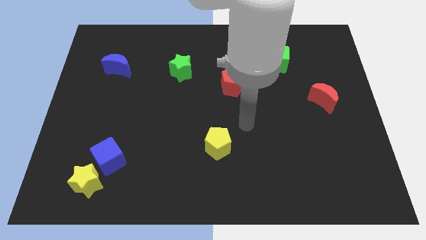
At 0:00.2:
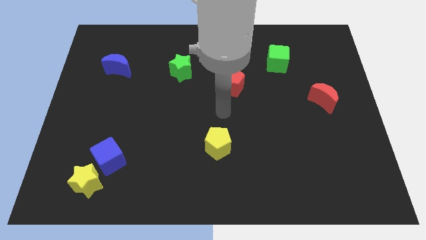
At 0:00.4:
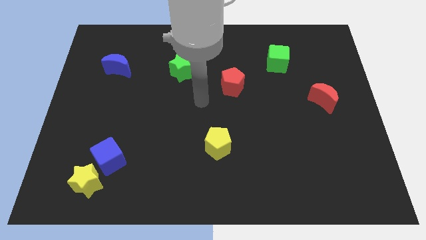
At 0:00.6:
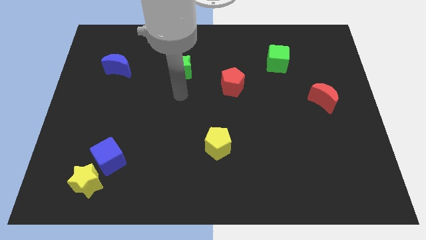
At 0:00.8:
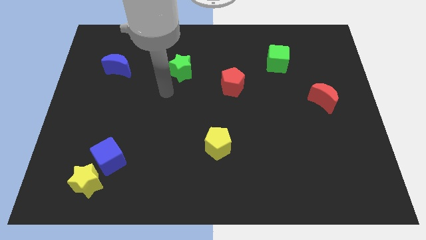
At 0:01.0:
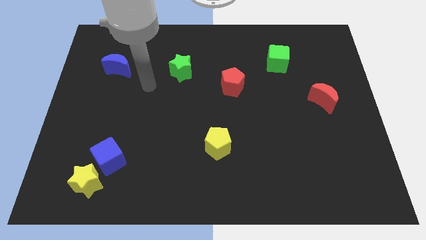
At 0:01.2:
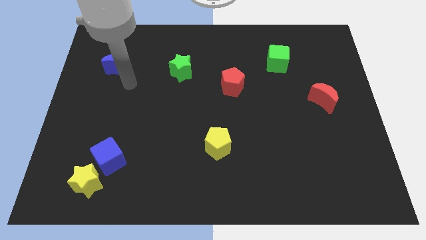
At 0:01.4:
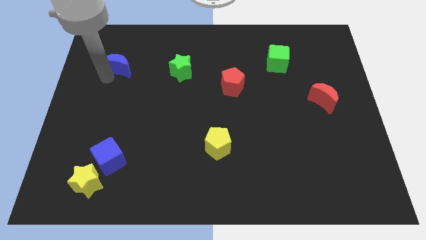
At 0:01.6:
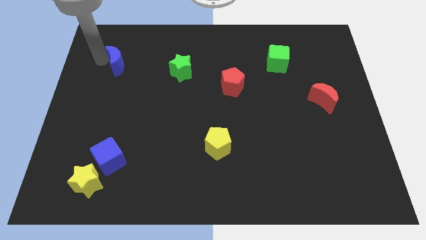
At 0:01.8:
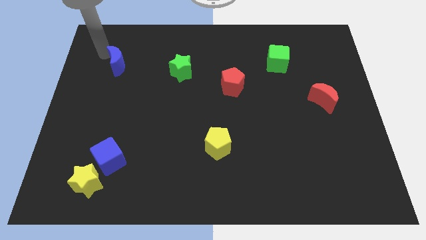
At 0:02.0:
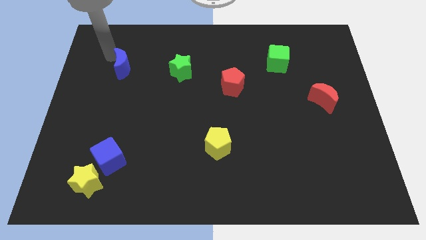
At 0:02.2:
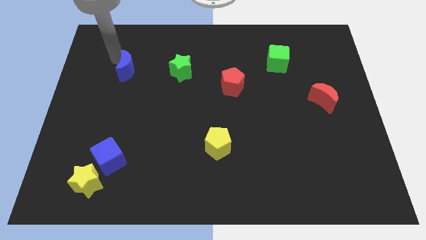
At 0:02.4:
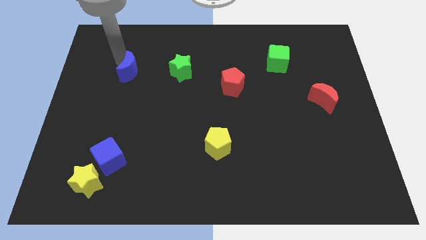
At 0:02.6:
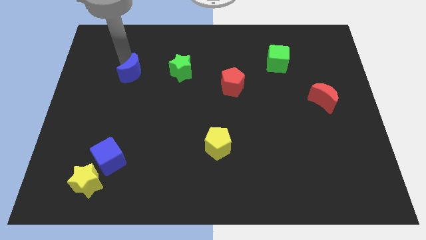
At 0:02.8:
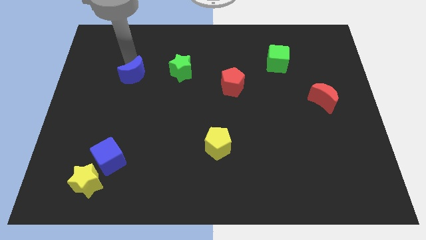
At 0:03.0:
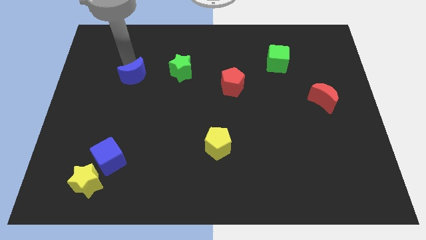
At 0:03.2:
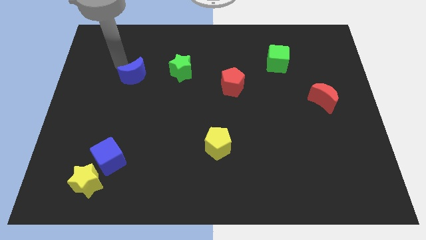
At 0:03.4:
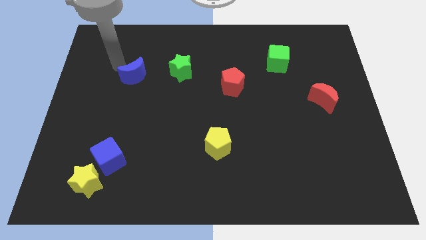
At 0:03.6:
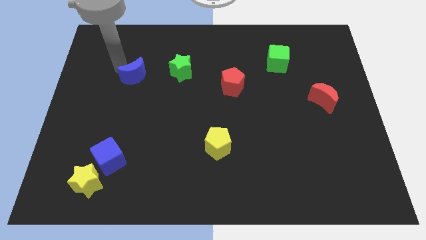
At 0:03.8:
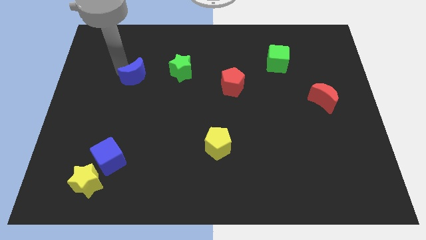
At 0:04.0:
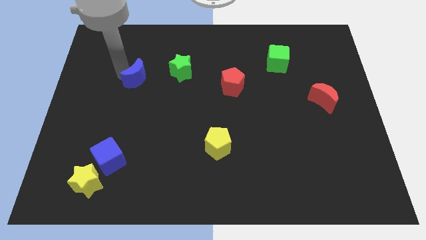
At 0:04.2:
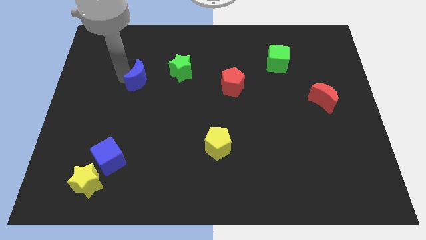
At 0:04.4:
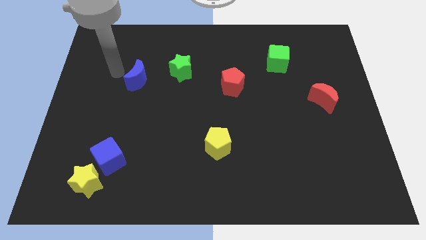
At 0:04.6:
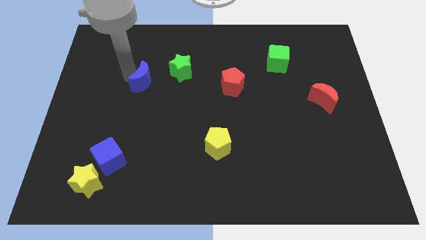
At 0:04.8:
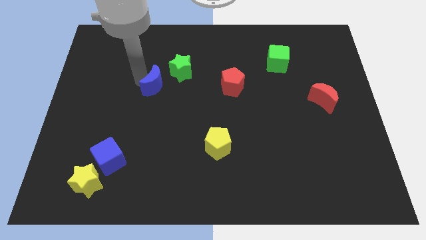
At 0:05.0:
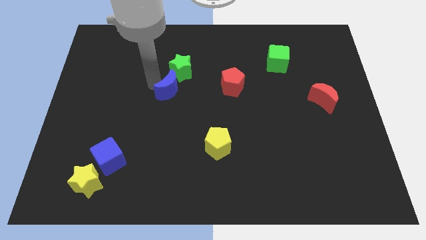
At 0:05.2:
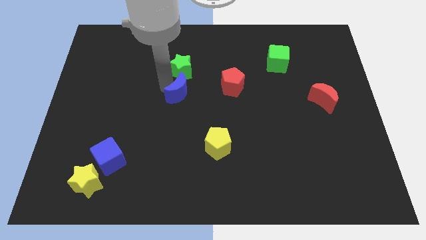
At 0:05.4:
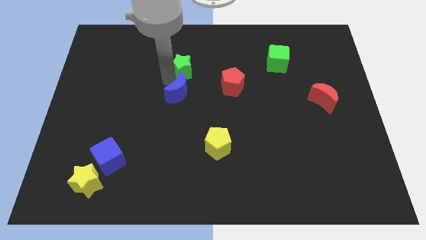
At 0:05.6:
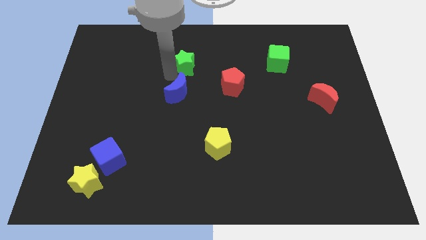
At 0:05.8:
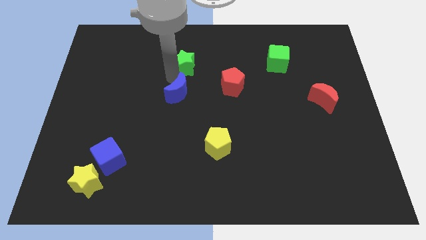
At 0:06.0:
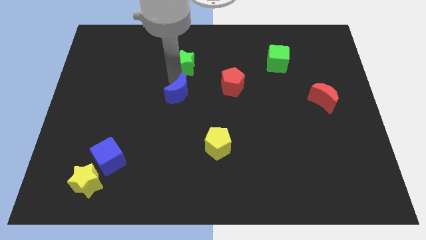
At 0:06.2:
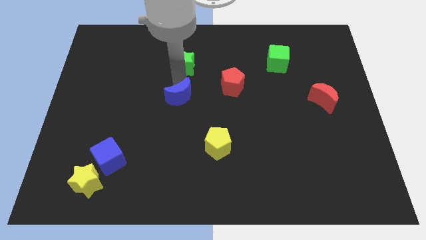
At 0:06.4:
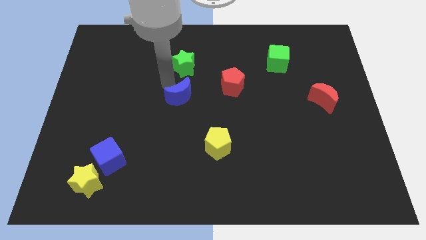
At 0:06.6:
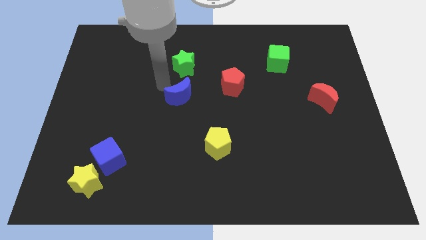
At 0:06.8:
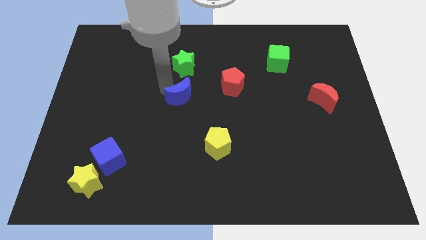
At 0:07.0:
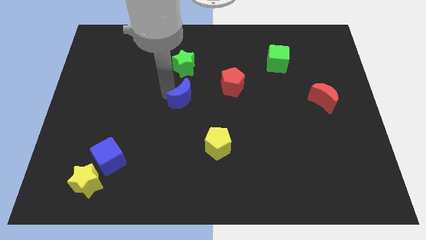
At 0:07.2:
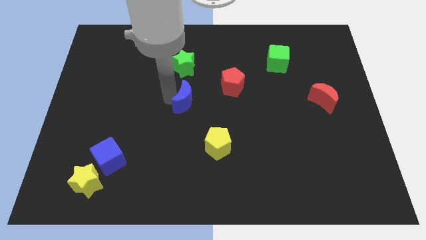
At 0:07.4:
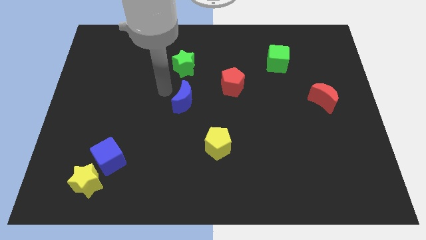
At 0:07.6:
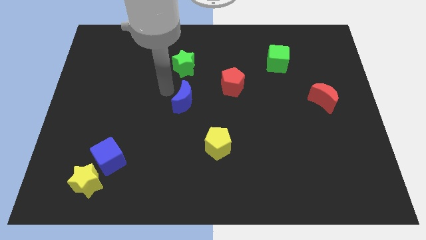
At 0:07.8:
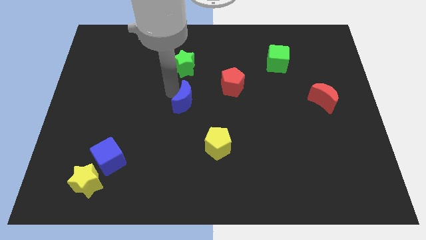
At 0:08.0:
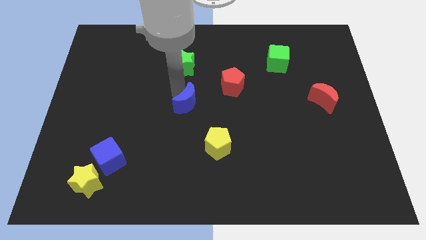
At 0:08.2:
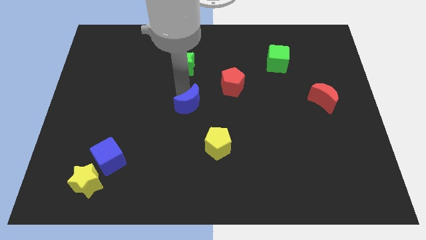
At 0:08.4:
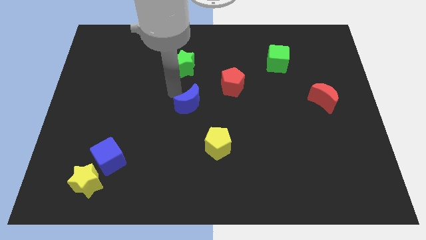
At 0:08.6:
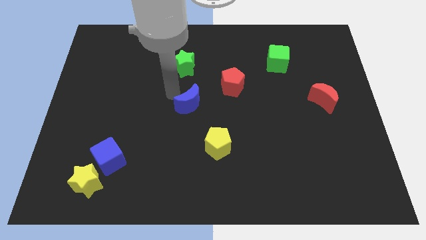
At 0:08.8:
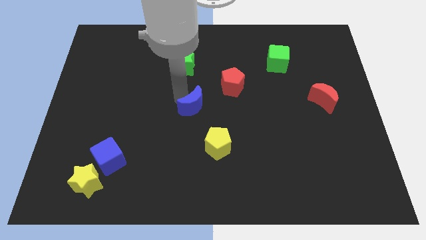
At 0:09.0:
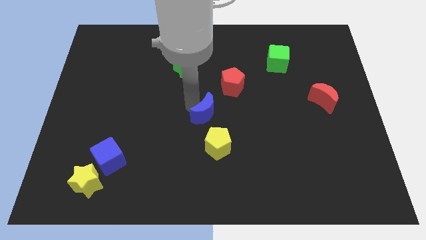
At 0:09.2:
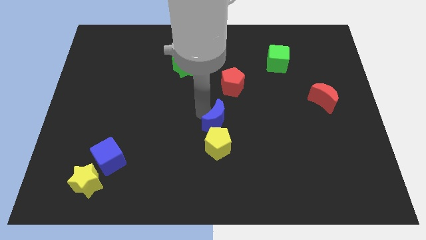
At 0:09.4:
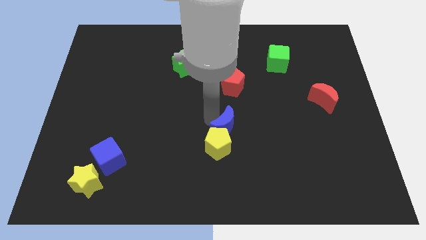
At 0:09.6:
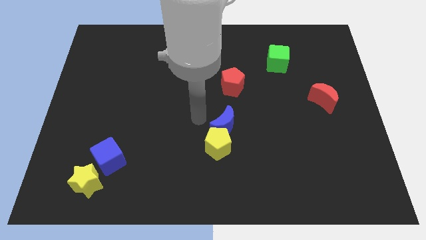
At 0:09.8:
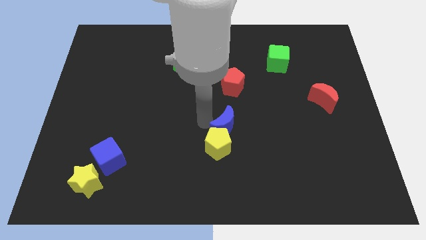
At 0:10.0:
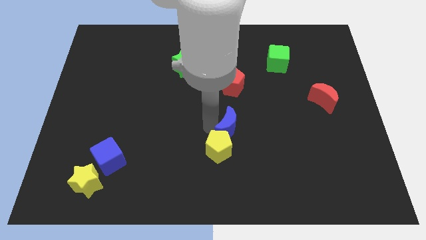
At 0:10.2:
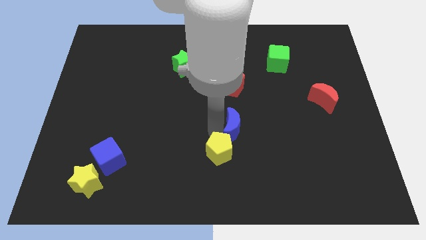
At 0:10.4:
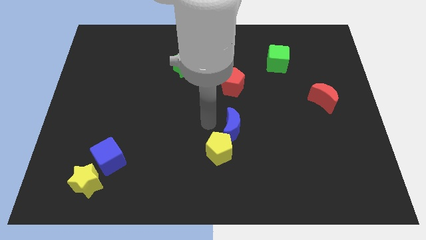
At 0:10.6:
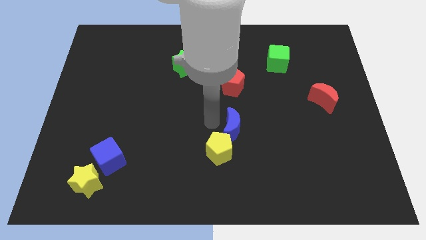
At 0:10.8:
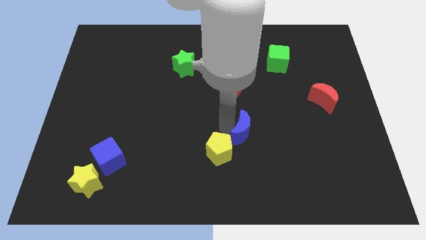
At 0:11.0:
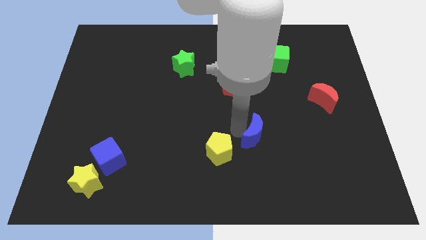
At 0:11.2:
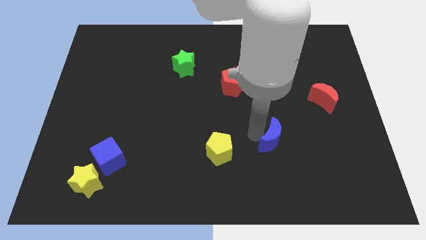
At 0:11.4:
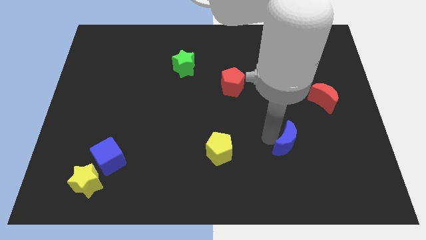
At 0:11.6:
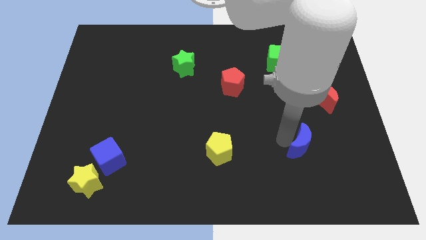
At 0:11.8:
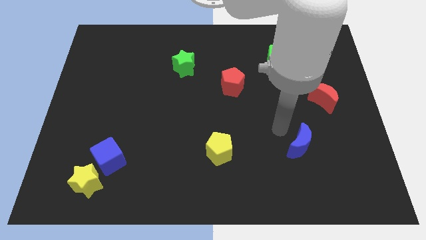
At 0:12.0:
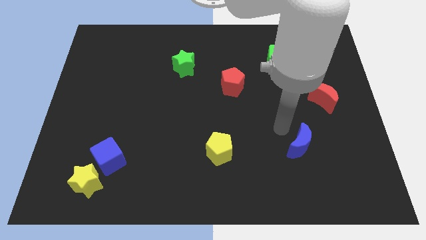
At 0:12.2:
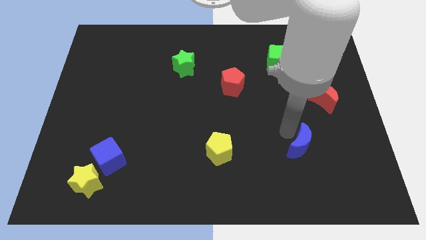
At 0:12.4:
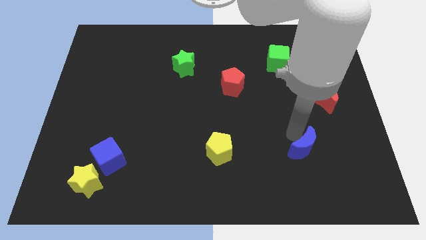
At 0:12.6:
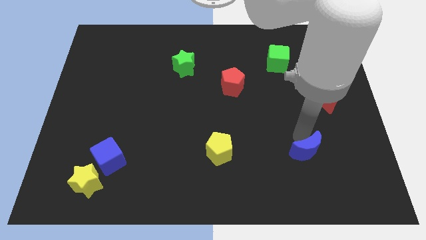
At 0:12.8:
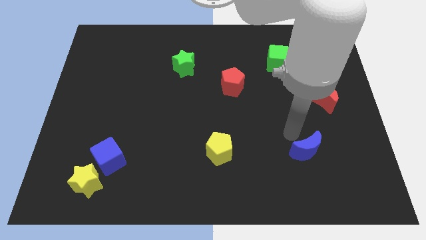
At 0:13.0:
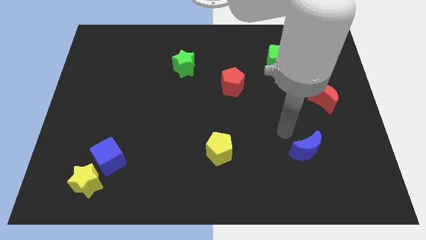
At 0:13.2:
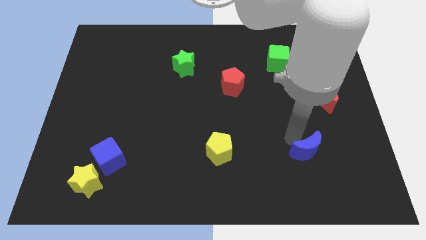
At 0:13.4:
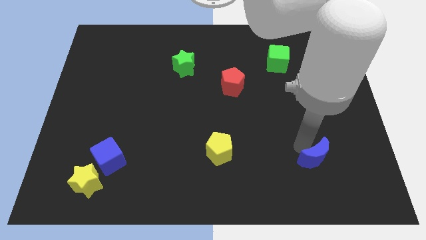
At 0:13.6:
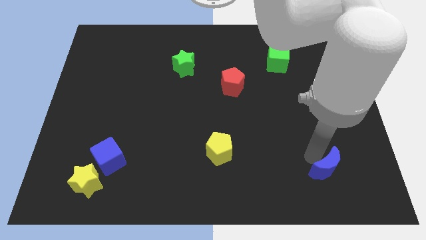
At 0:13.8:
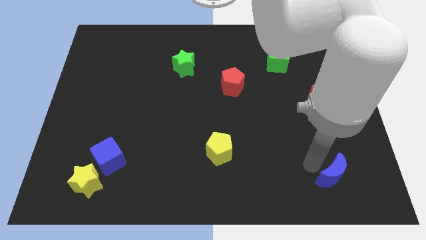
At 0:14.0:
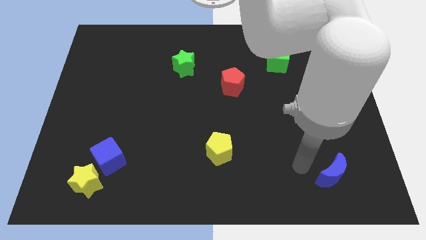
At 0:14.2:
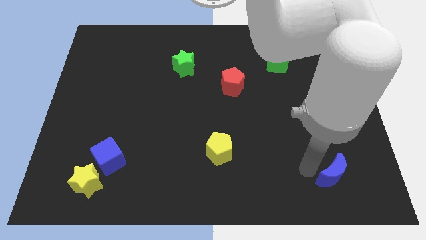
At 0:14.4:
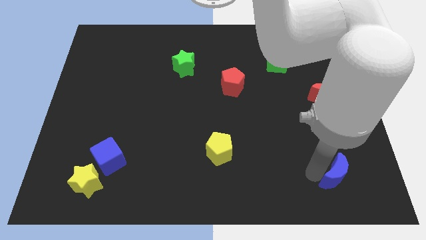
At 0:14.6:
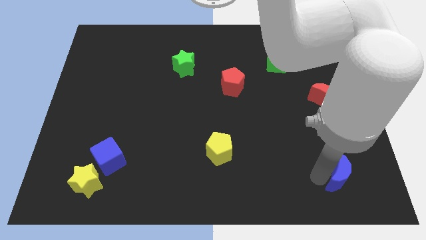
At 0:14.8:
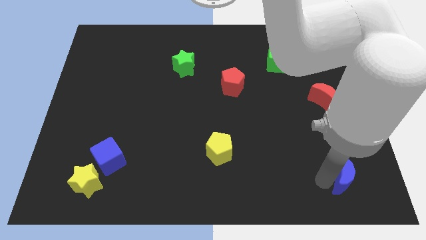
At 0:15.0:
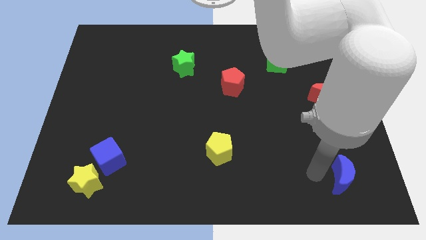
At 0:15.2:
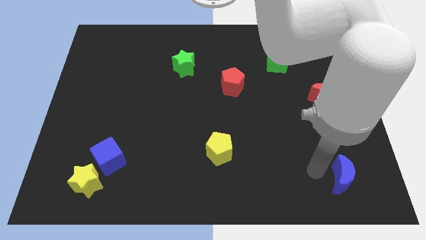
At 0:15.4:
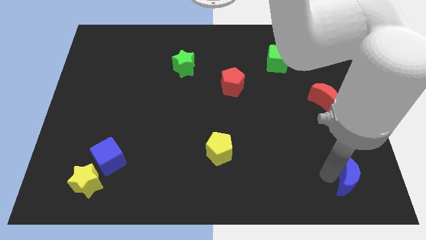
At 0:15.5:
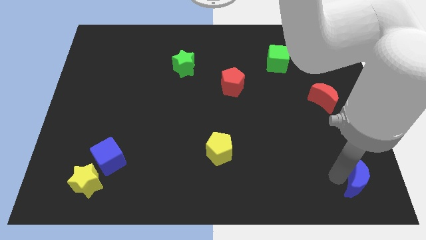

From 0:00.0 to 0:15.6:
put the blue moon to the bottom right
